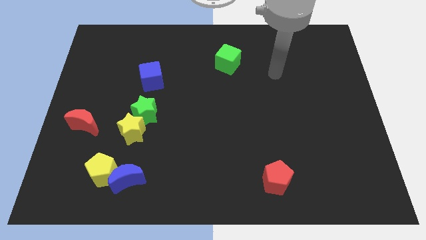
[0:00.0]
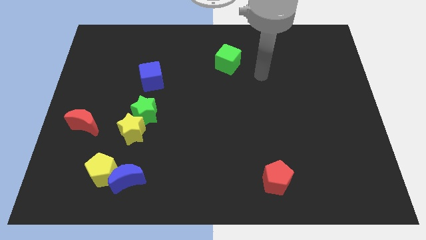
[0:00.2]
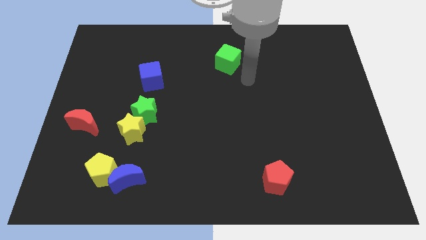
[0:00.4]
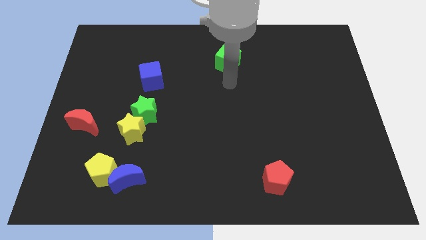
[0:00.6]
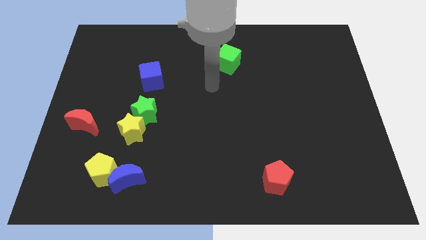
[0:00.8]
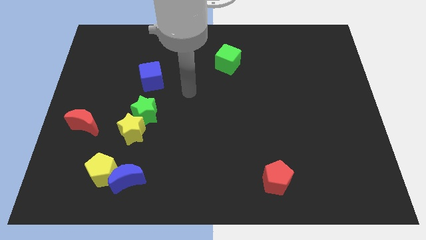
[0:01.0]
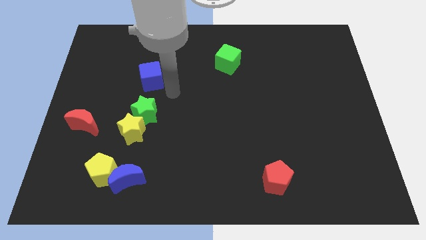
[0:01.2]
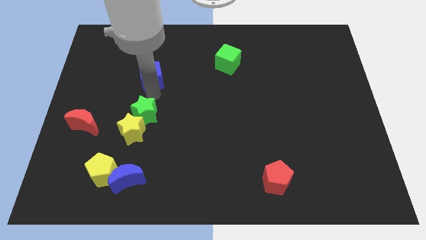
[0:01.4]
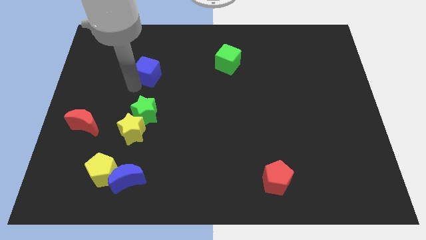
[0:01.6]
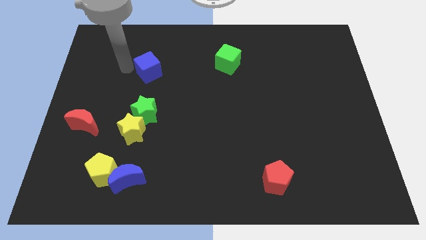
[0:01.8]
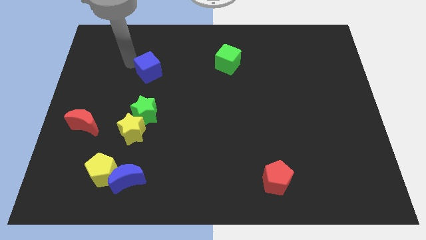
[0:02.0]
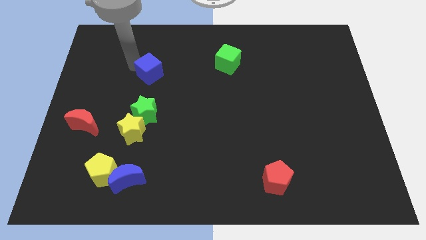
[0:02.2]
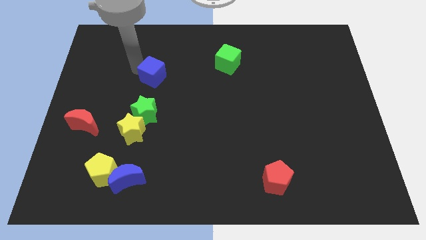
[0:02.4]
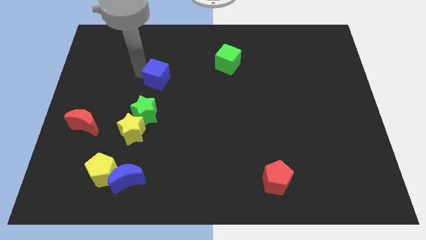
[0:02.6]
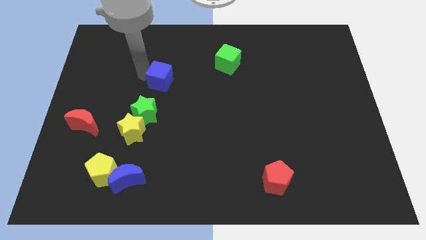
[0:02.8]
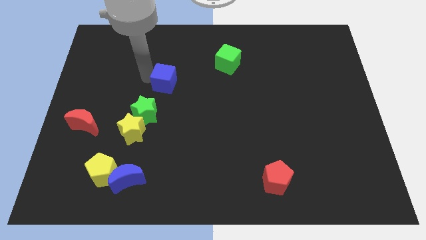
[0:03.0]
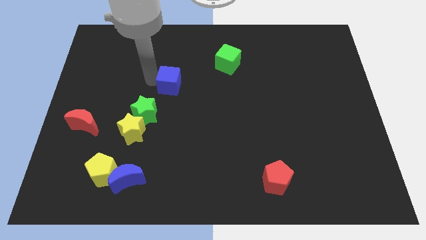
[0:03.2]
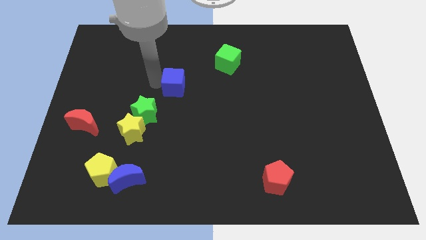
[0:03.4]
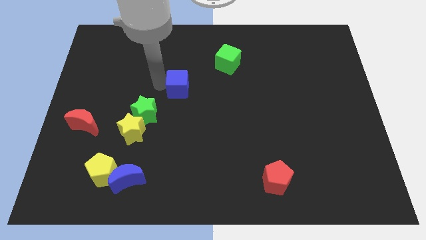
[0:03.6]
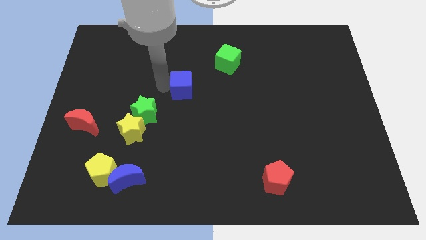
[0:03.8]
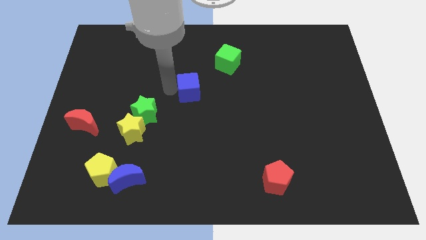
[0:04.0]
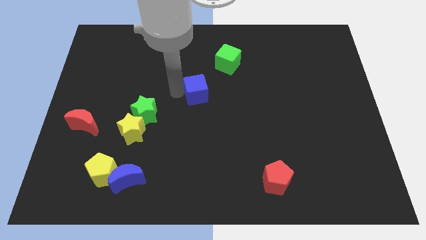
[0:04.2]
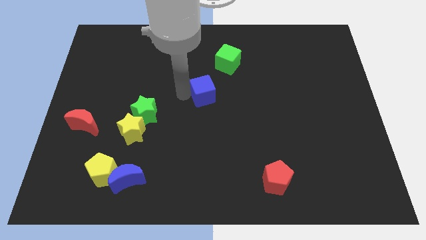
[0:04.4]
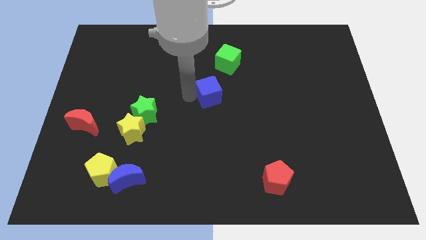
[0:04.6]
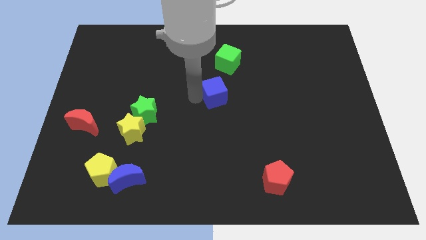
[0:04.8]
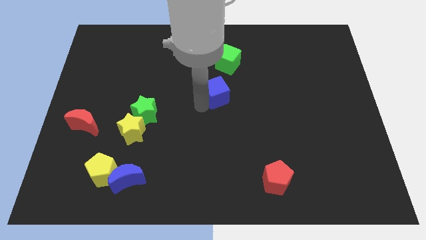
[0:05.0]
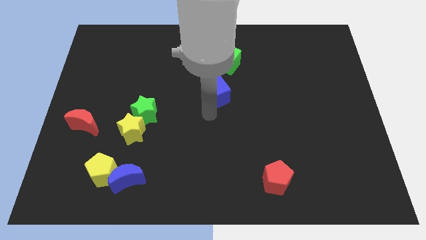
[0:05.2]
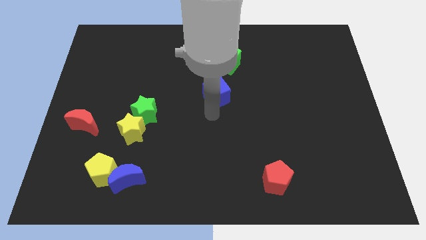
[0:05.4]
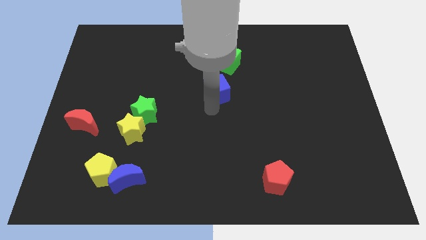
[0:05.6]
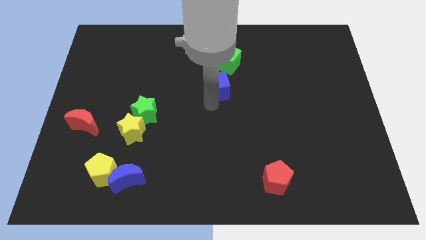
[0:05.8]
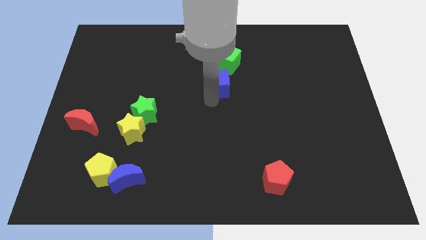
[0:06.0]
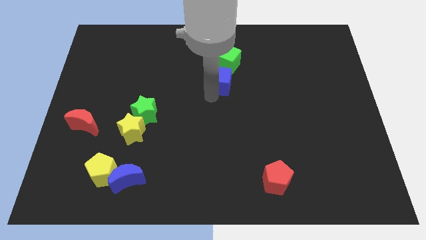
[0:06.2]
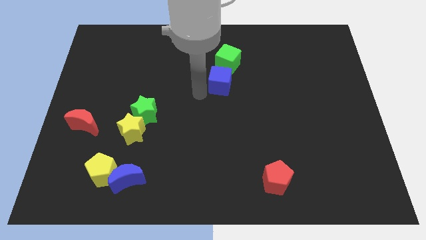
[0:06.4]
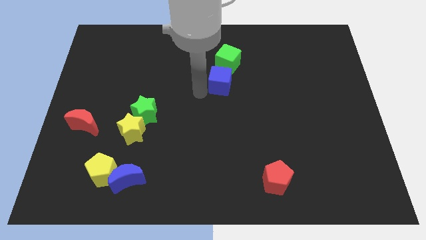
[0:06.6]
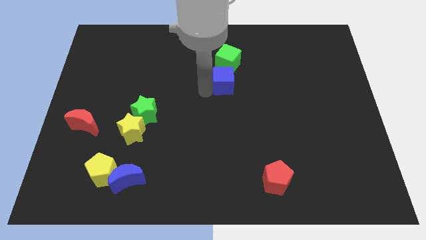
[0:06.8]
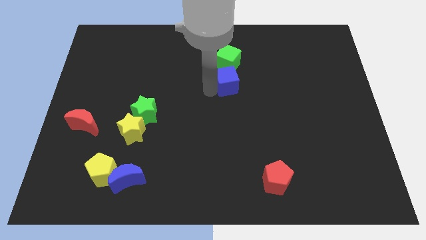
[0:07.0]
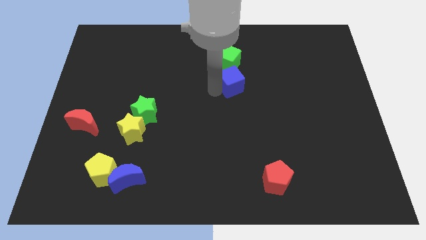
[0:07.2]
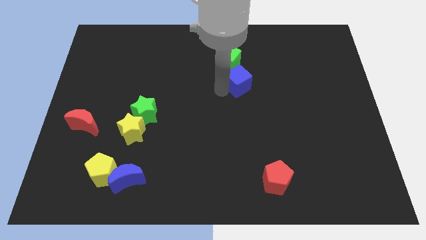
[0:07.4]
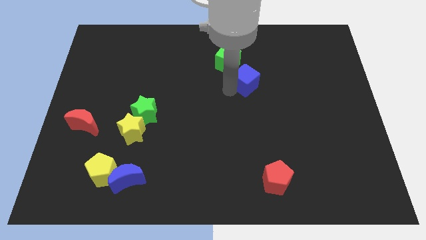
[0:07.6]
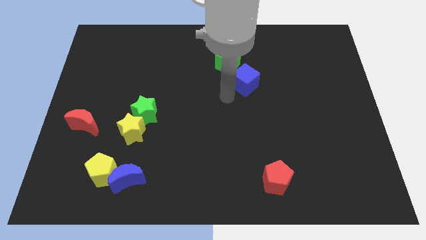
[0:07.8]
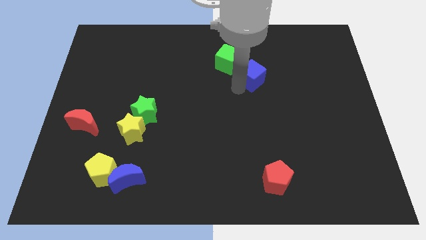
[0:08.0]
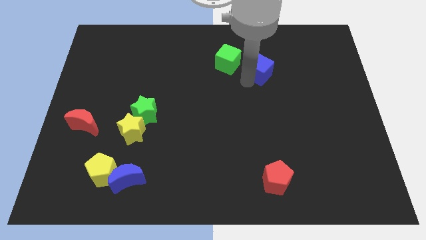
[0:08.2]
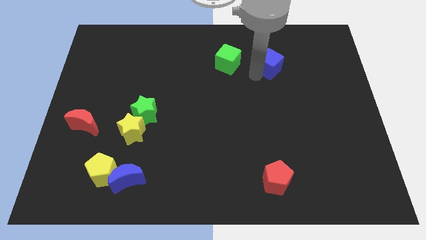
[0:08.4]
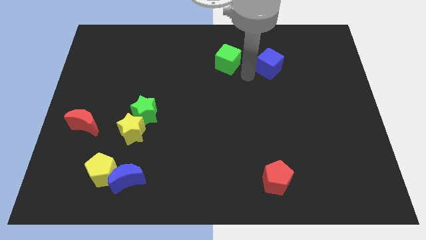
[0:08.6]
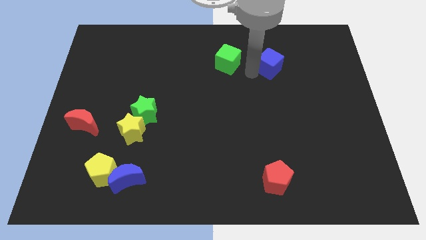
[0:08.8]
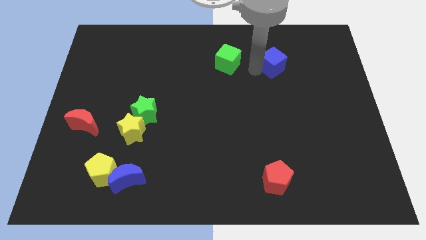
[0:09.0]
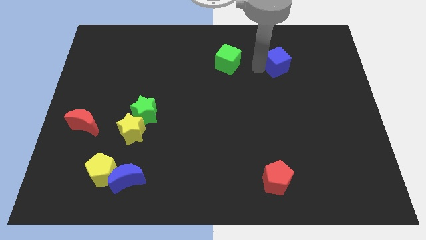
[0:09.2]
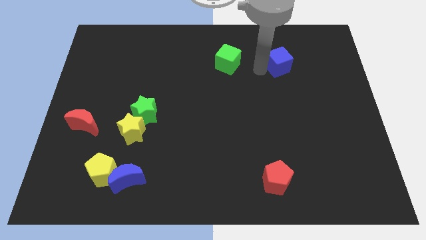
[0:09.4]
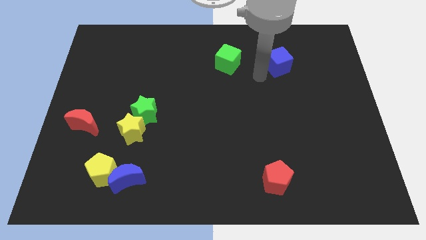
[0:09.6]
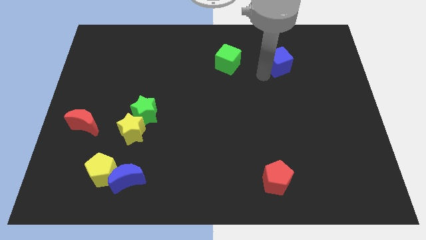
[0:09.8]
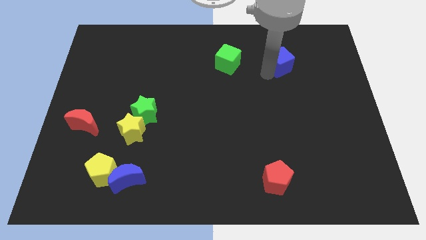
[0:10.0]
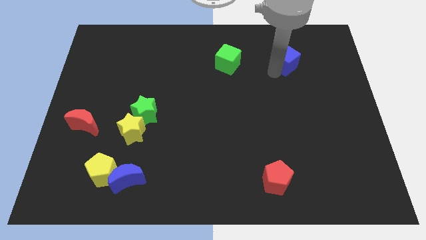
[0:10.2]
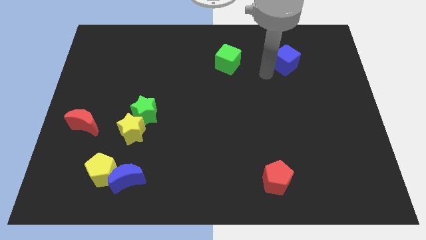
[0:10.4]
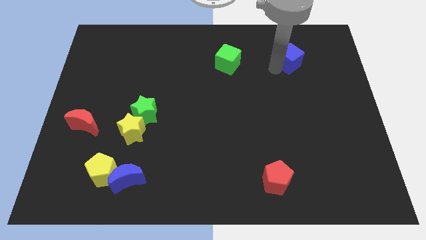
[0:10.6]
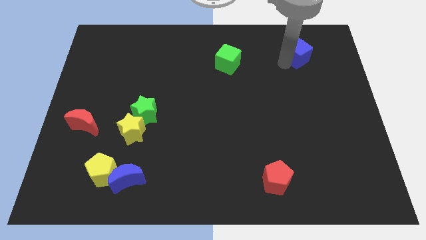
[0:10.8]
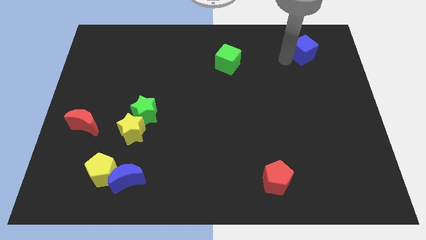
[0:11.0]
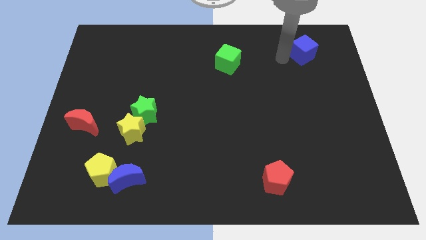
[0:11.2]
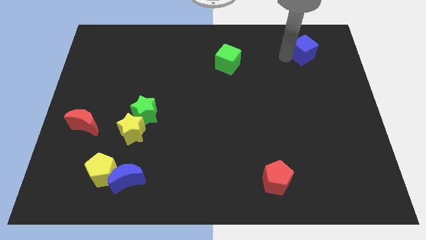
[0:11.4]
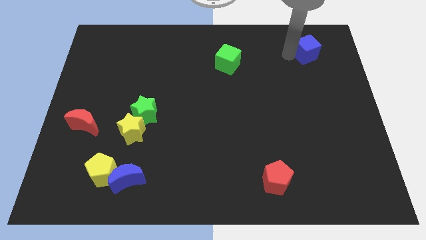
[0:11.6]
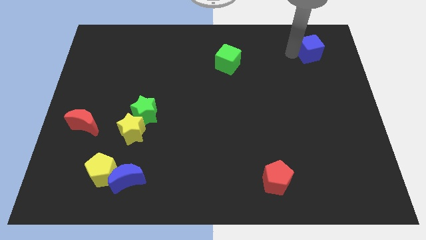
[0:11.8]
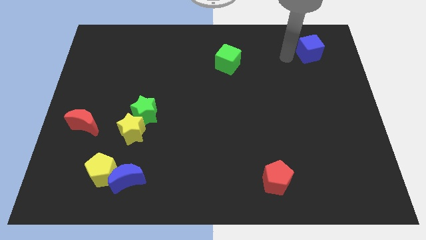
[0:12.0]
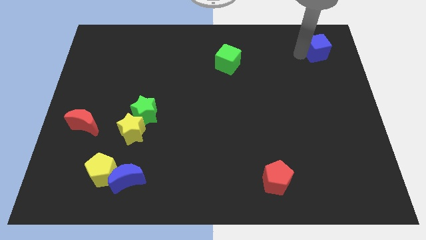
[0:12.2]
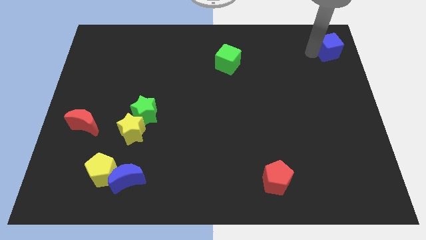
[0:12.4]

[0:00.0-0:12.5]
push the blue cube to the upper right corner
